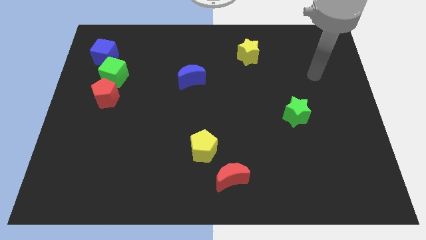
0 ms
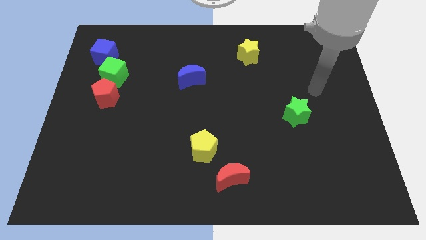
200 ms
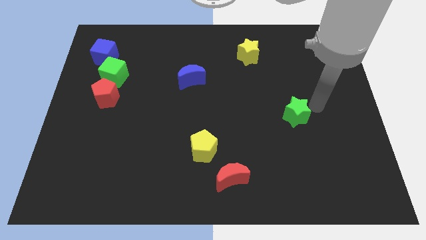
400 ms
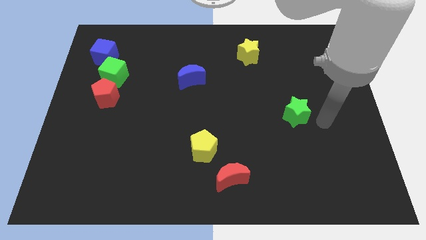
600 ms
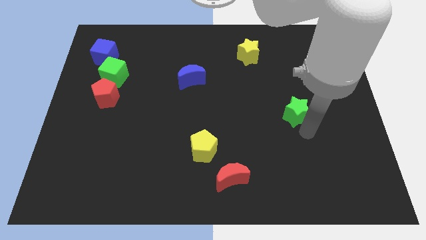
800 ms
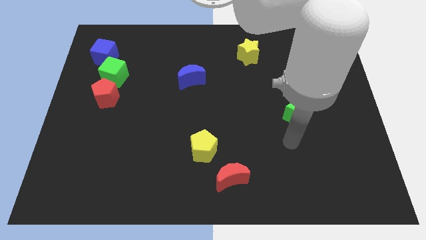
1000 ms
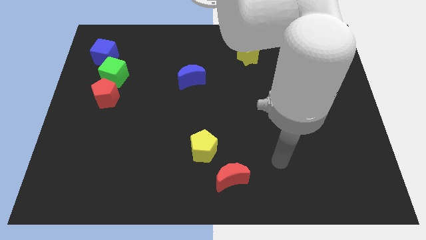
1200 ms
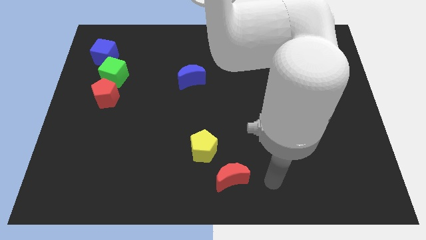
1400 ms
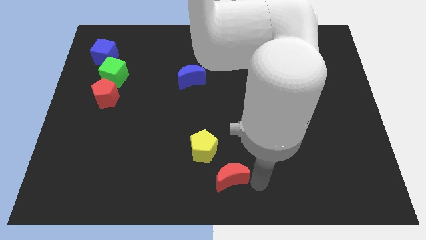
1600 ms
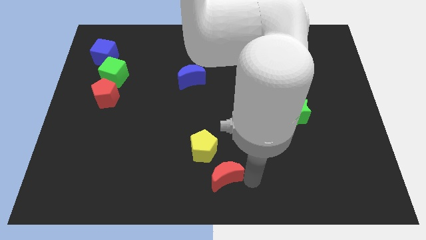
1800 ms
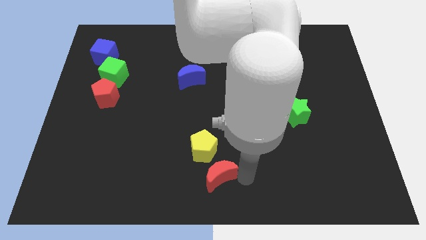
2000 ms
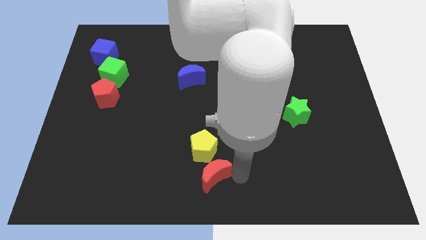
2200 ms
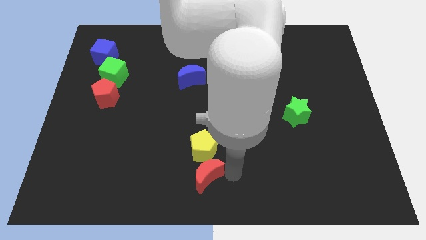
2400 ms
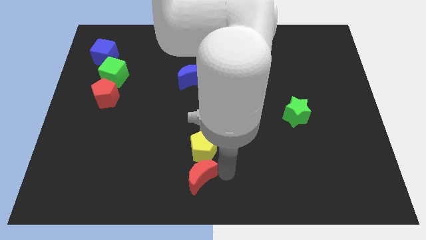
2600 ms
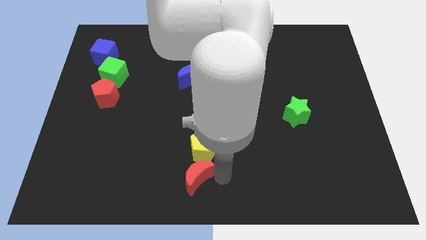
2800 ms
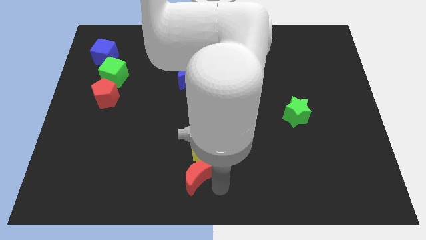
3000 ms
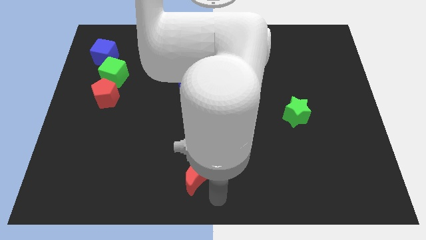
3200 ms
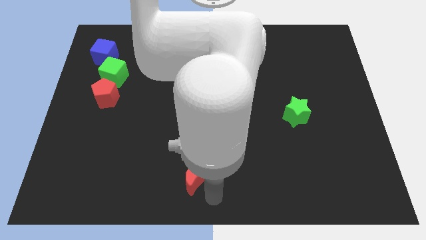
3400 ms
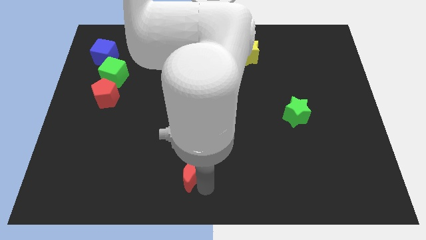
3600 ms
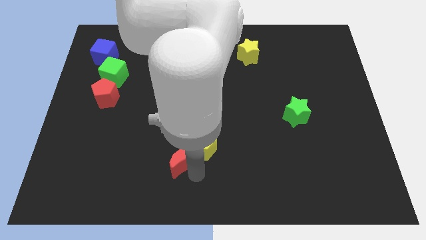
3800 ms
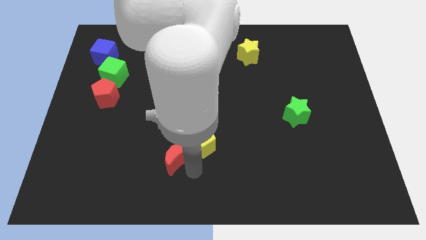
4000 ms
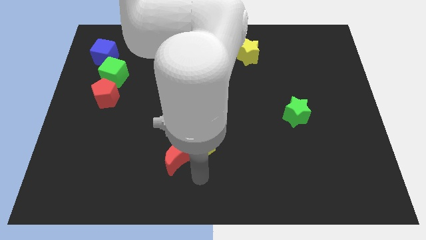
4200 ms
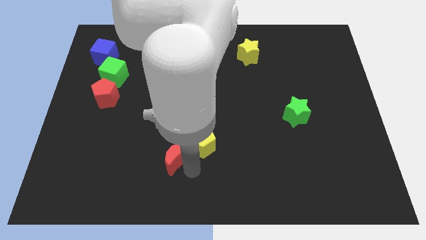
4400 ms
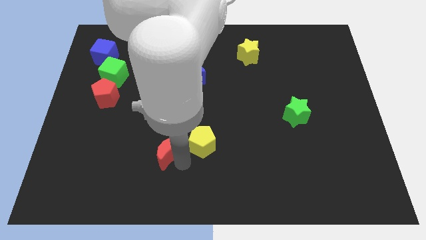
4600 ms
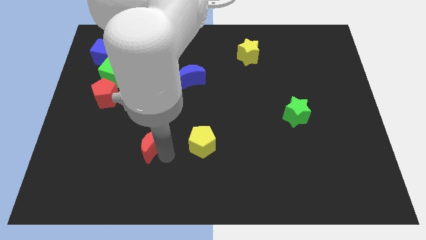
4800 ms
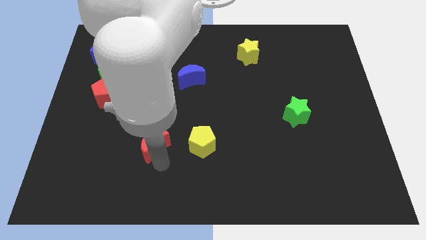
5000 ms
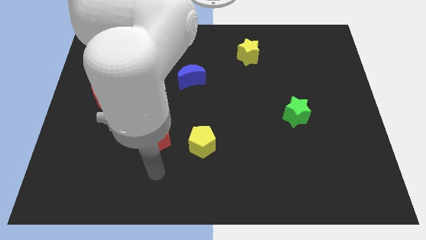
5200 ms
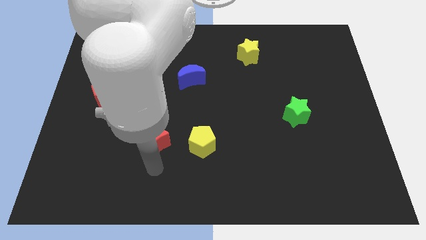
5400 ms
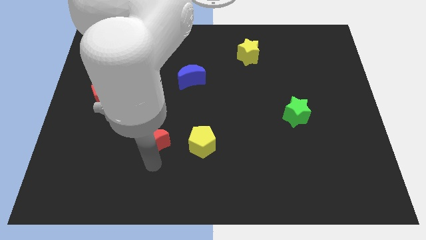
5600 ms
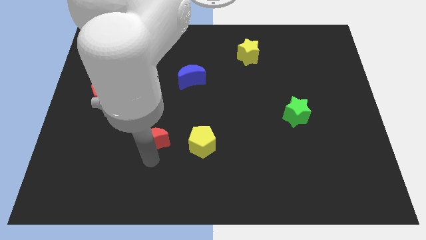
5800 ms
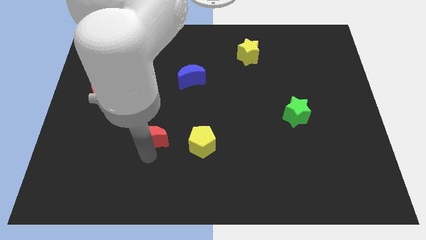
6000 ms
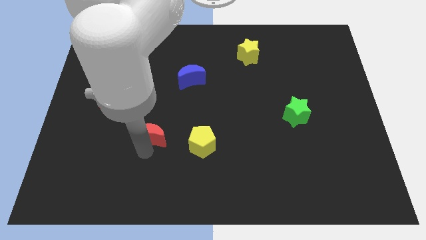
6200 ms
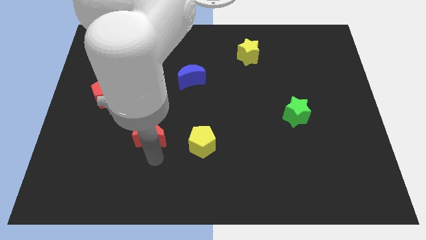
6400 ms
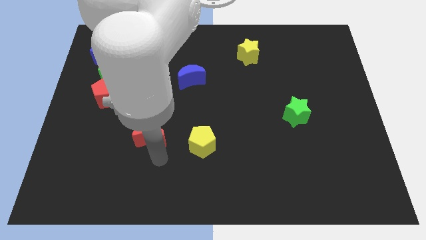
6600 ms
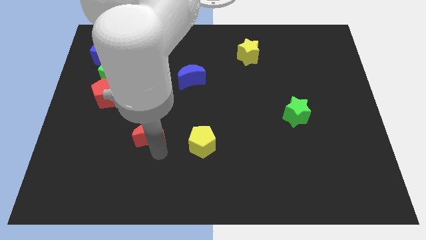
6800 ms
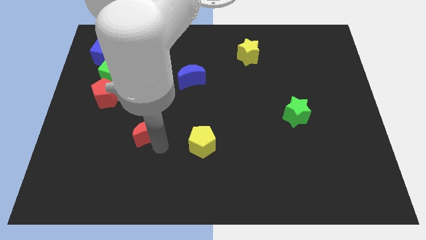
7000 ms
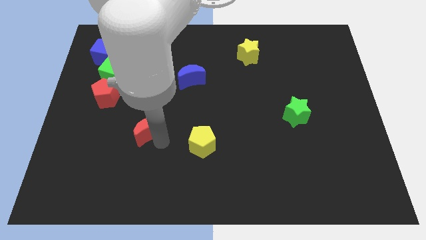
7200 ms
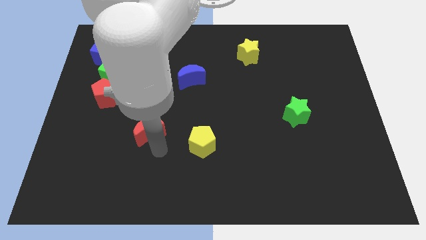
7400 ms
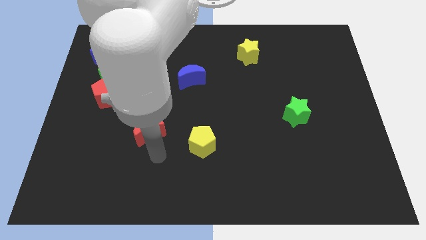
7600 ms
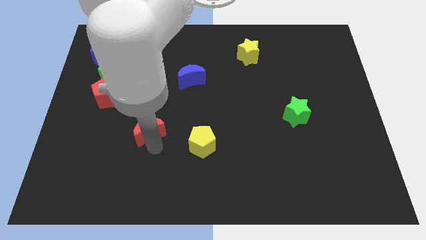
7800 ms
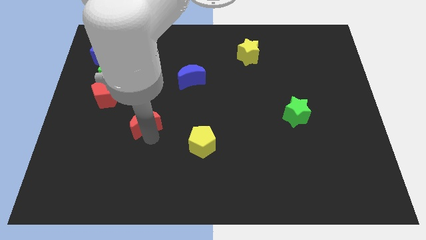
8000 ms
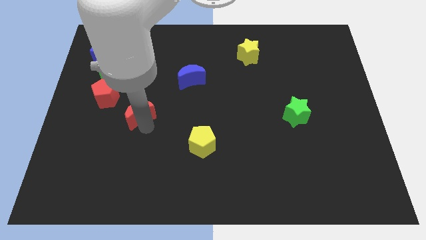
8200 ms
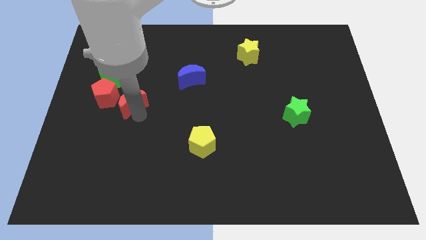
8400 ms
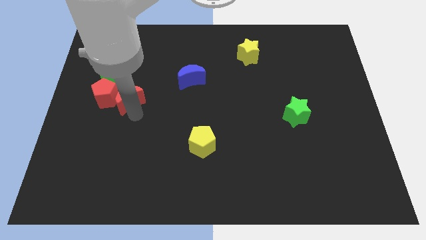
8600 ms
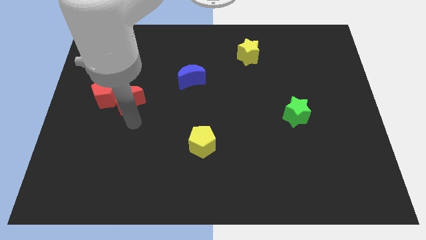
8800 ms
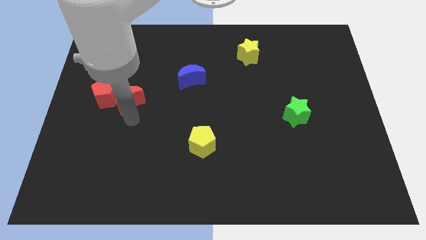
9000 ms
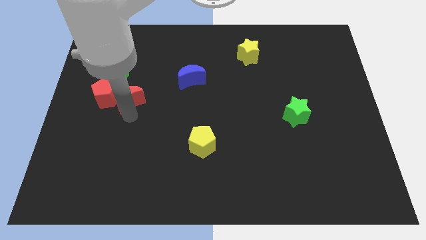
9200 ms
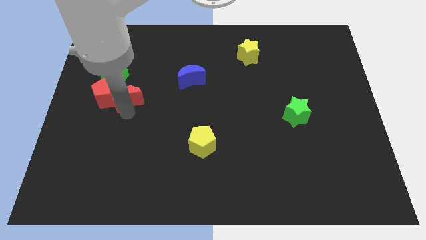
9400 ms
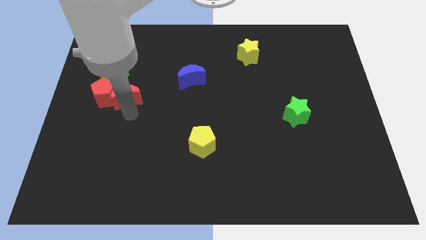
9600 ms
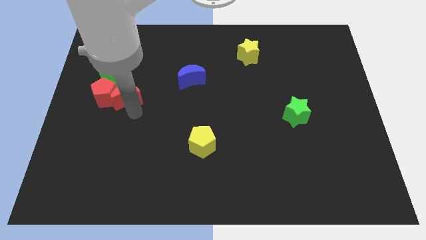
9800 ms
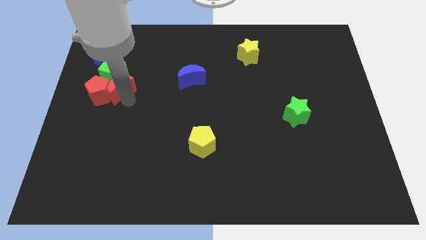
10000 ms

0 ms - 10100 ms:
push the red moon close to the green cube

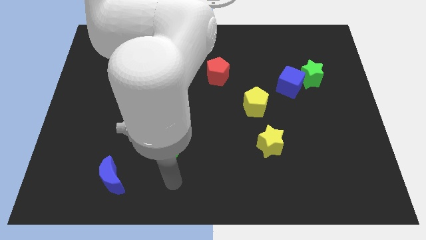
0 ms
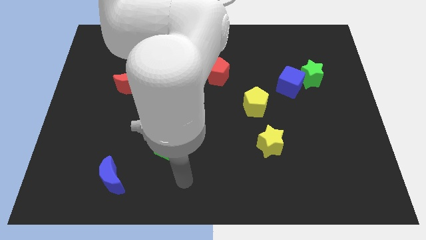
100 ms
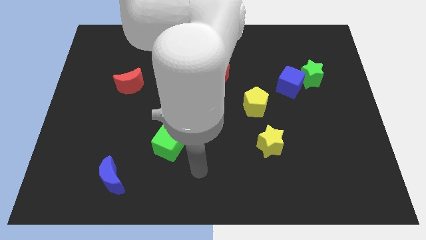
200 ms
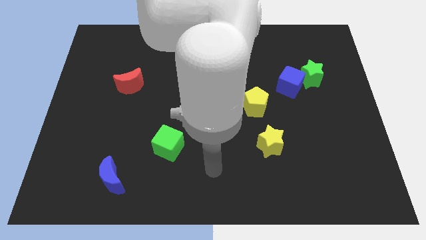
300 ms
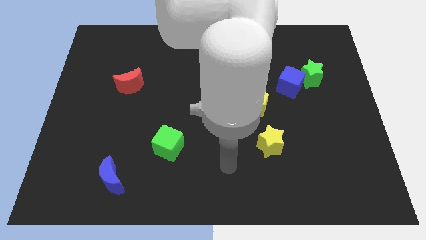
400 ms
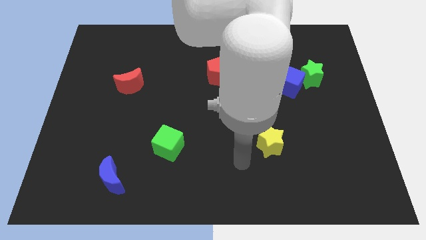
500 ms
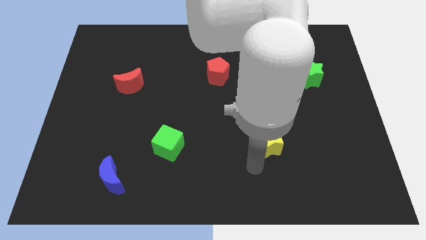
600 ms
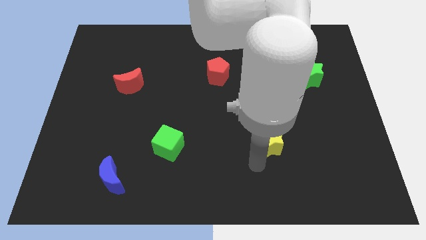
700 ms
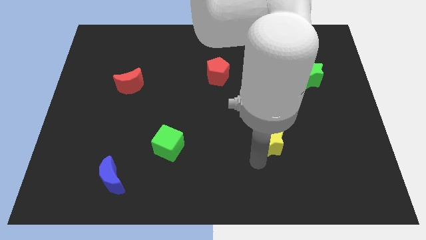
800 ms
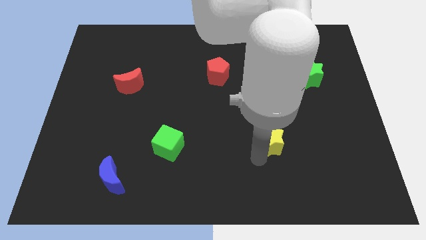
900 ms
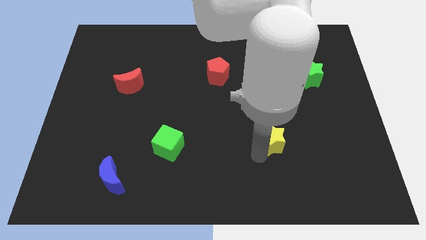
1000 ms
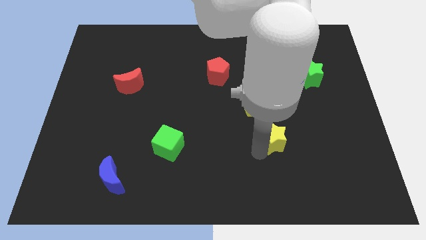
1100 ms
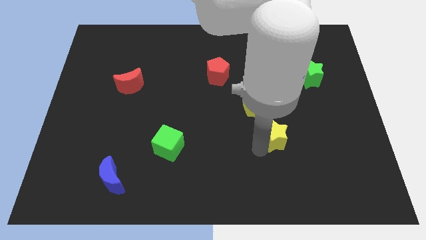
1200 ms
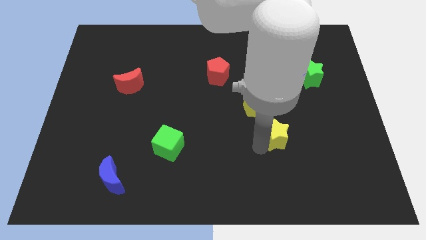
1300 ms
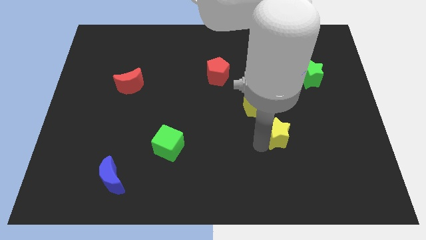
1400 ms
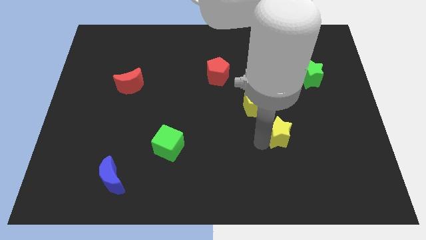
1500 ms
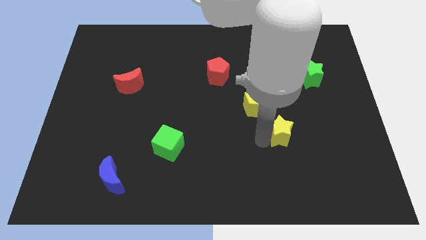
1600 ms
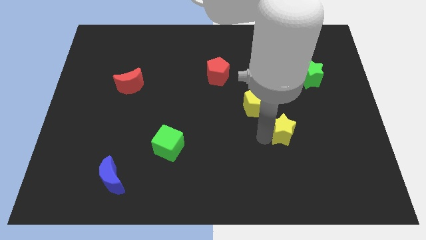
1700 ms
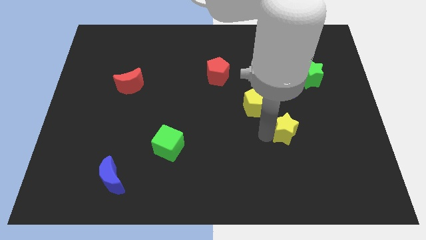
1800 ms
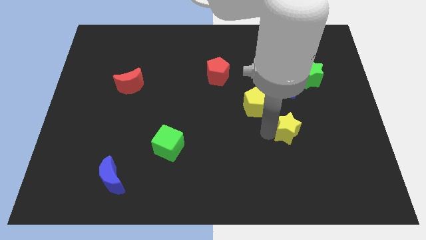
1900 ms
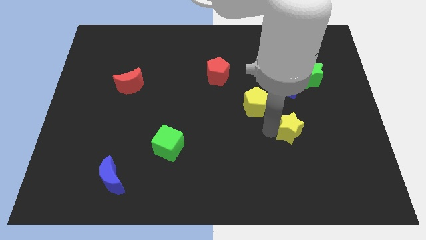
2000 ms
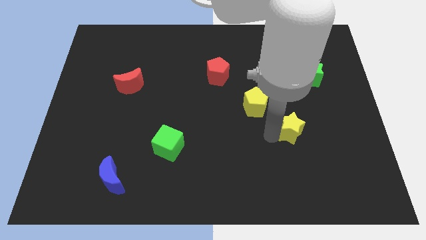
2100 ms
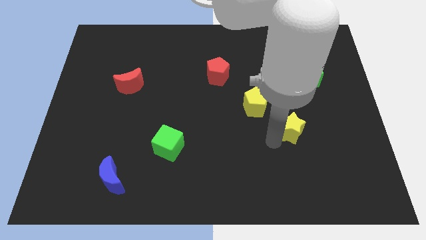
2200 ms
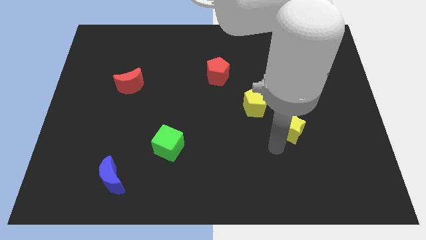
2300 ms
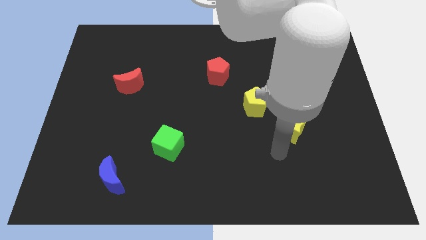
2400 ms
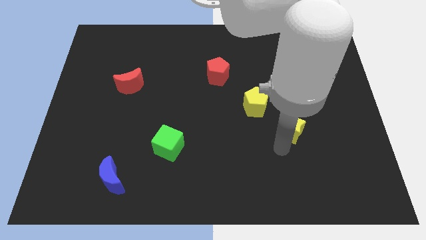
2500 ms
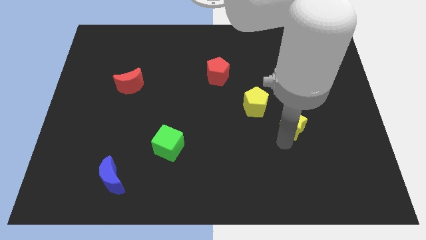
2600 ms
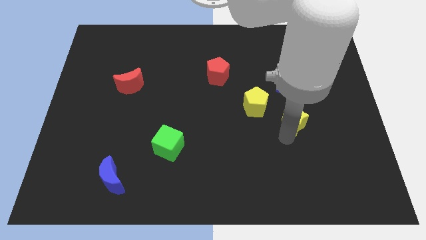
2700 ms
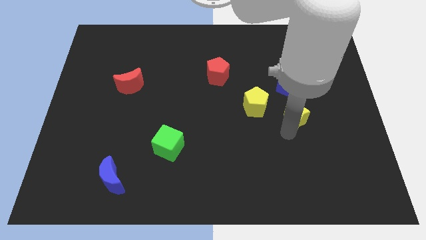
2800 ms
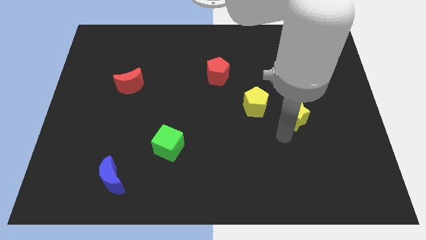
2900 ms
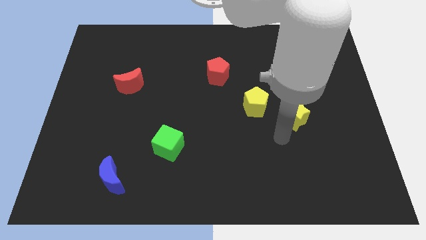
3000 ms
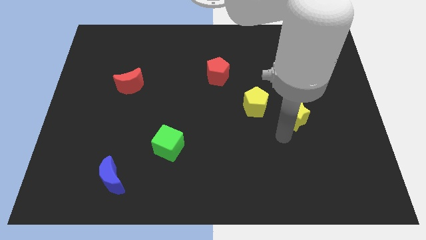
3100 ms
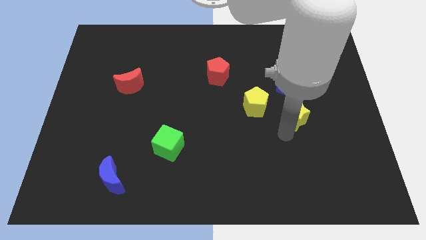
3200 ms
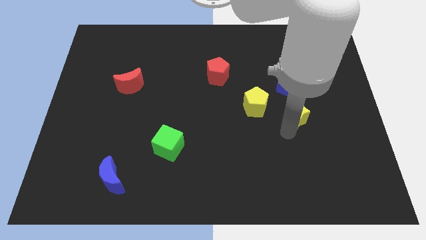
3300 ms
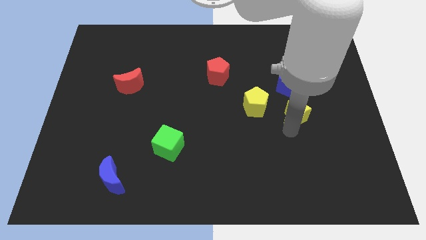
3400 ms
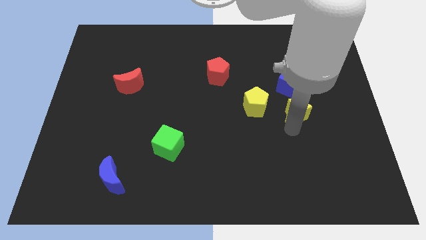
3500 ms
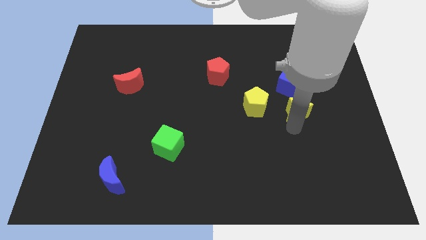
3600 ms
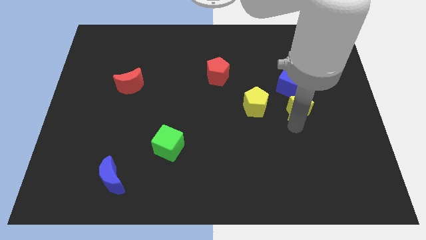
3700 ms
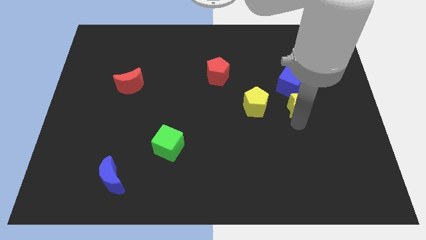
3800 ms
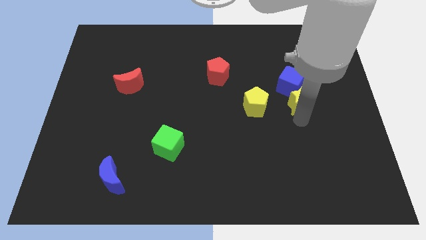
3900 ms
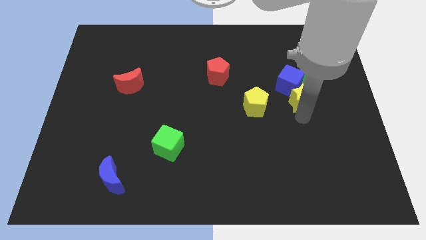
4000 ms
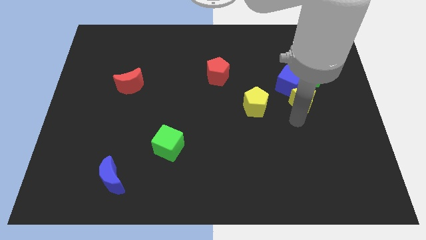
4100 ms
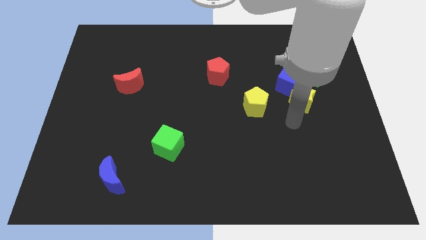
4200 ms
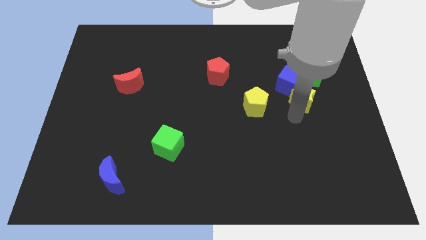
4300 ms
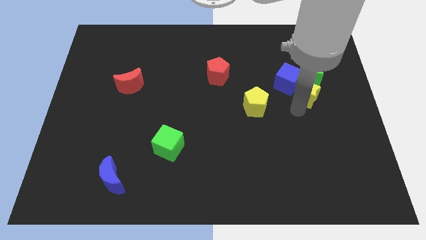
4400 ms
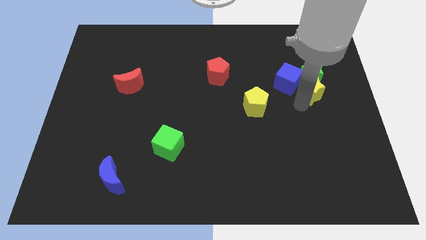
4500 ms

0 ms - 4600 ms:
push the yellow star close to the green star
